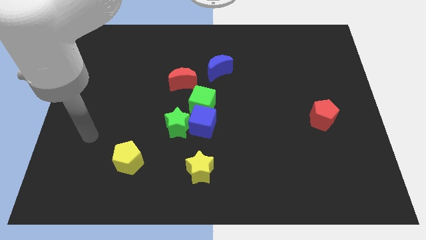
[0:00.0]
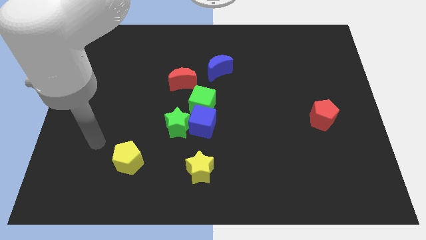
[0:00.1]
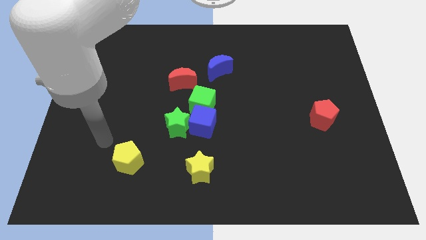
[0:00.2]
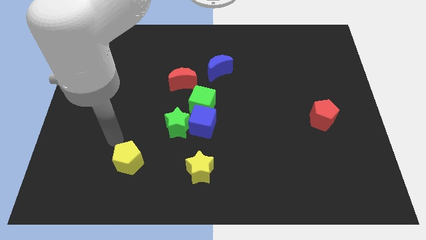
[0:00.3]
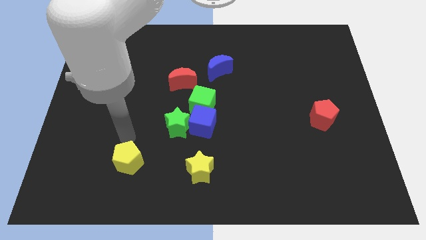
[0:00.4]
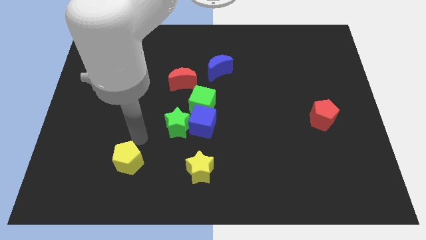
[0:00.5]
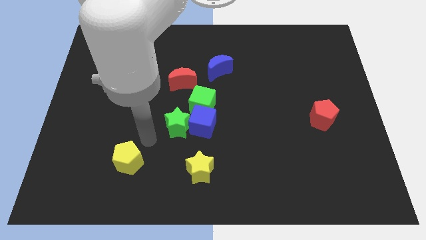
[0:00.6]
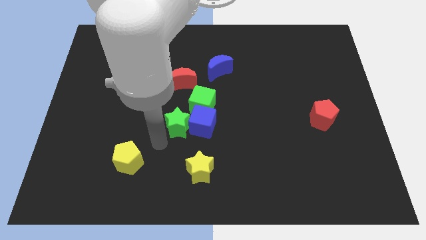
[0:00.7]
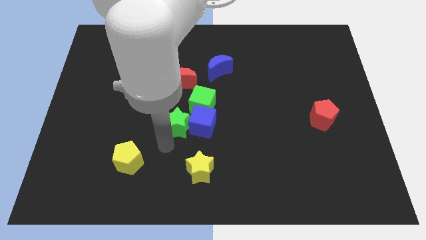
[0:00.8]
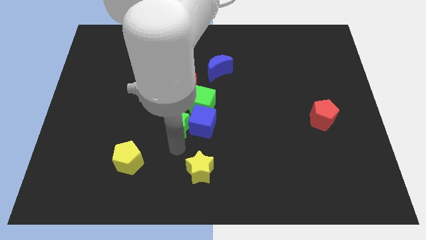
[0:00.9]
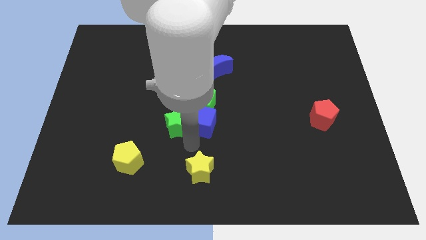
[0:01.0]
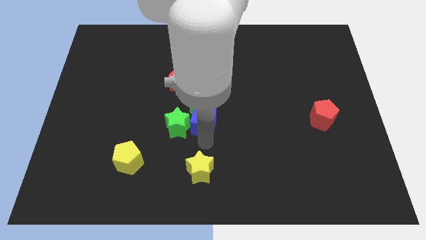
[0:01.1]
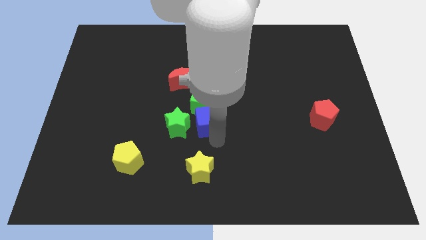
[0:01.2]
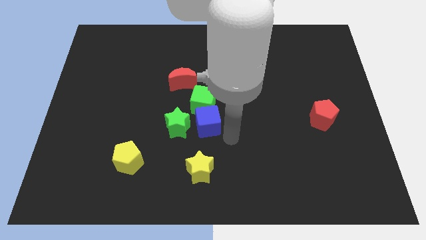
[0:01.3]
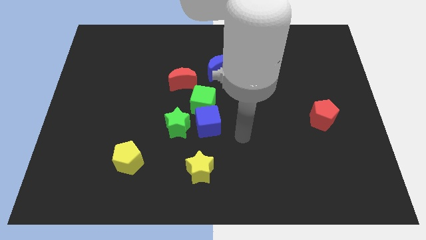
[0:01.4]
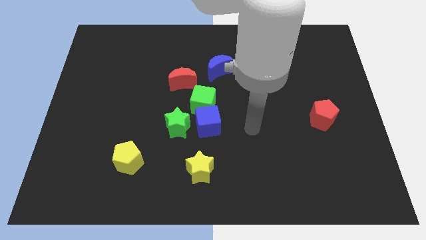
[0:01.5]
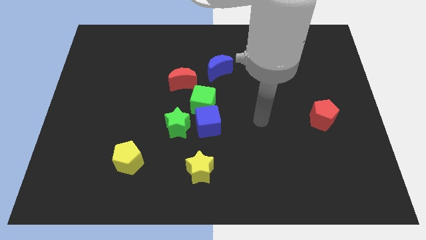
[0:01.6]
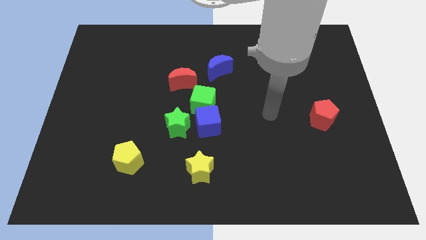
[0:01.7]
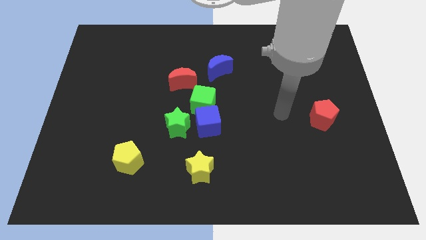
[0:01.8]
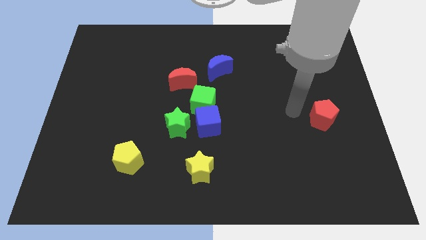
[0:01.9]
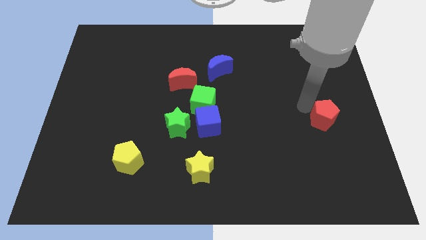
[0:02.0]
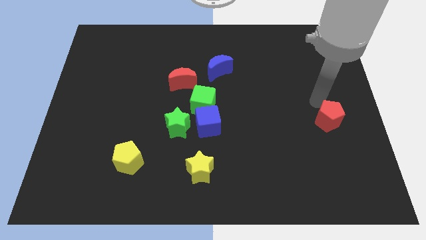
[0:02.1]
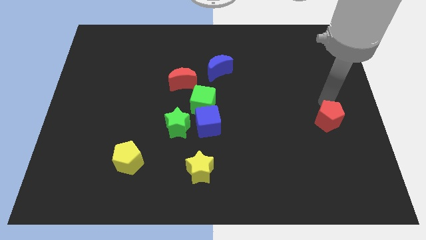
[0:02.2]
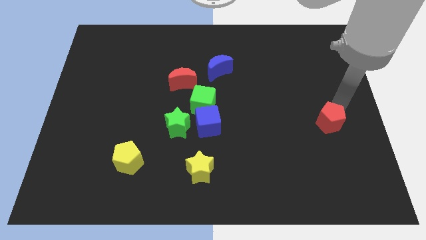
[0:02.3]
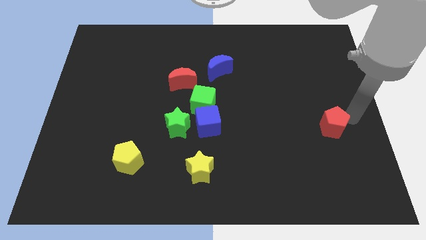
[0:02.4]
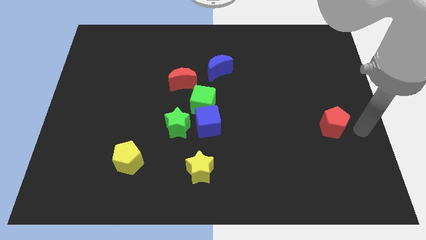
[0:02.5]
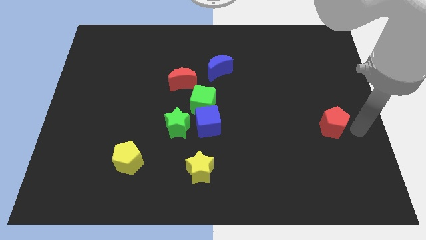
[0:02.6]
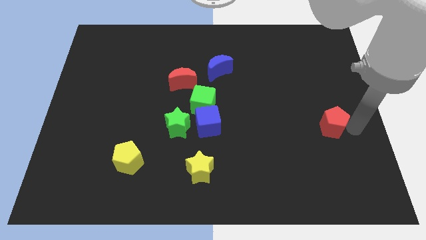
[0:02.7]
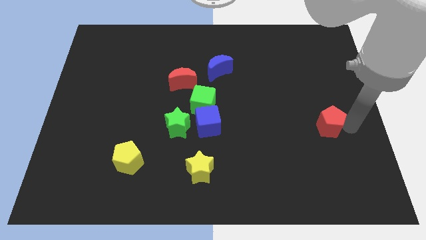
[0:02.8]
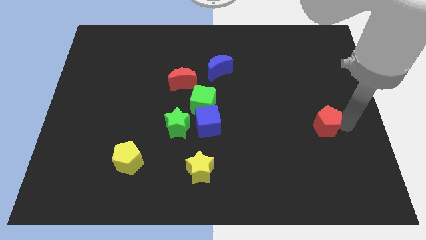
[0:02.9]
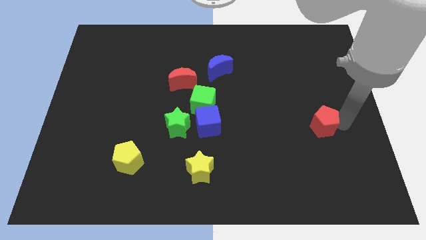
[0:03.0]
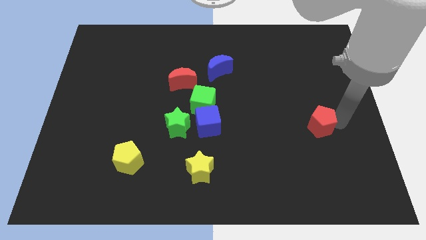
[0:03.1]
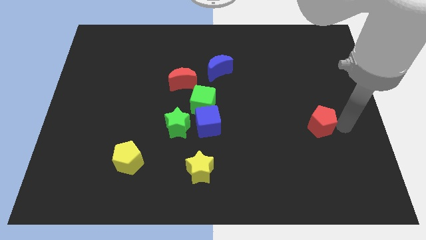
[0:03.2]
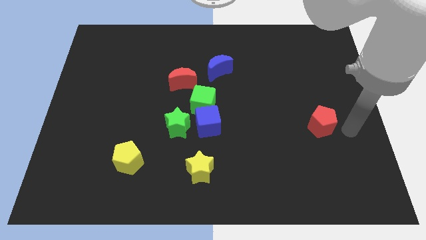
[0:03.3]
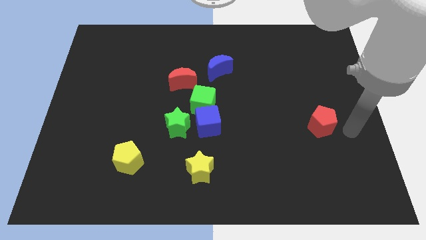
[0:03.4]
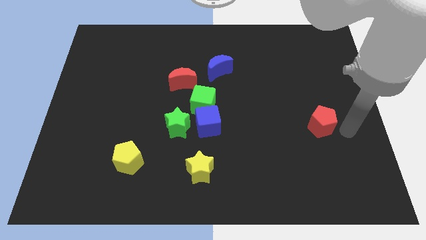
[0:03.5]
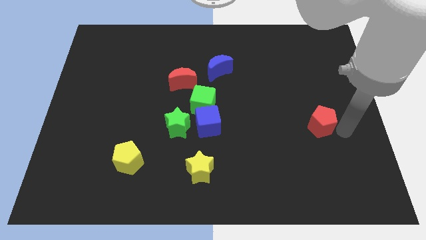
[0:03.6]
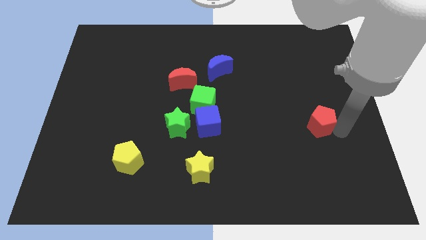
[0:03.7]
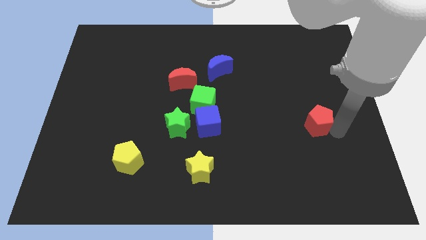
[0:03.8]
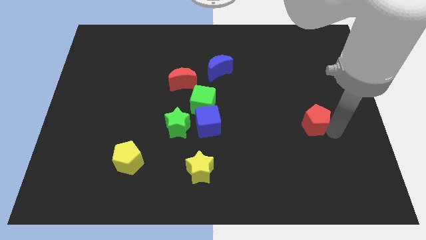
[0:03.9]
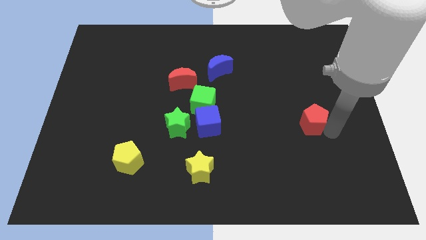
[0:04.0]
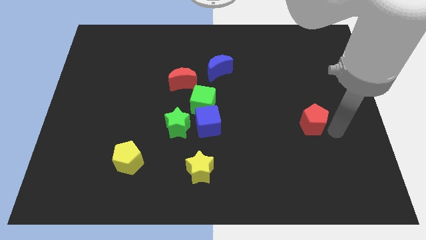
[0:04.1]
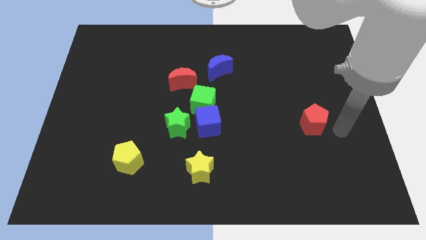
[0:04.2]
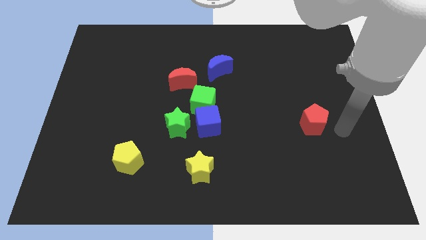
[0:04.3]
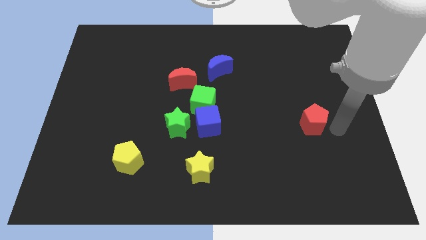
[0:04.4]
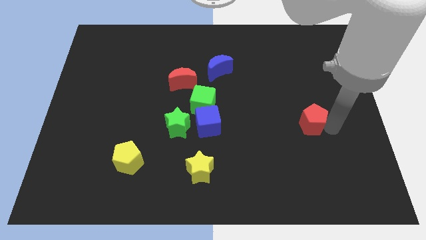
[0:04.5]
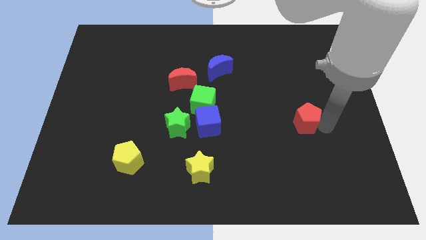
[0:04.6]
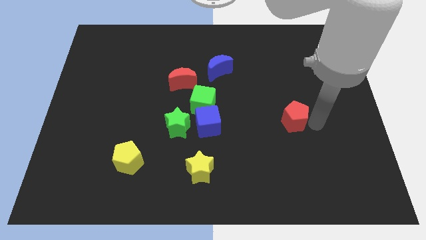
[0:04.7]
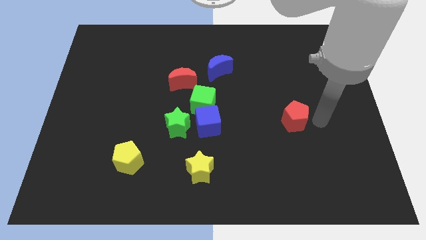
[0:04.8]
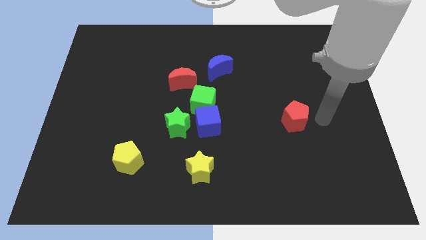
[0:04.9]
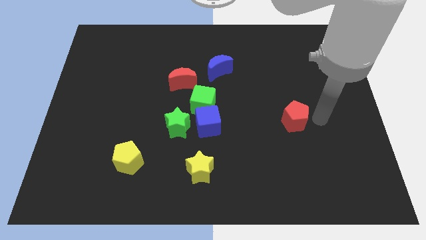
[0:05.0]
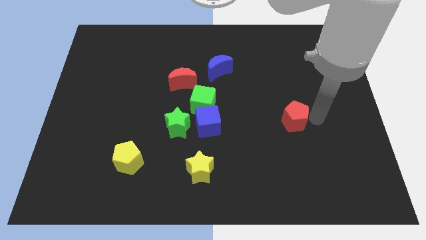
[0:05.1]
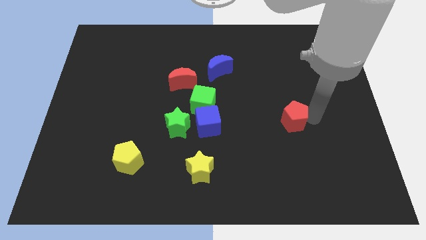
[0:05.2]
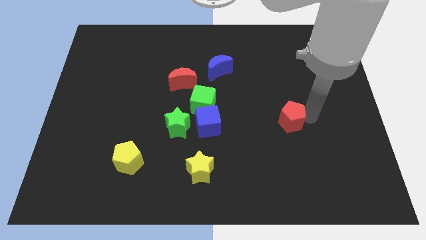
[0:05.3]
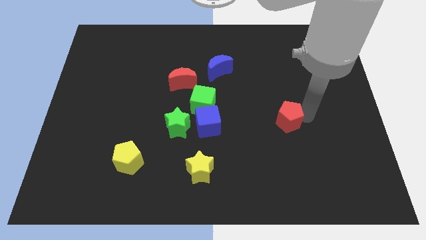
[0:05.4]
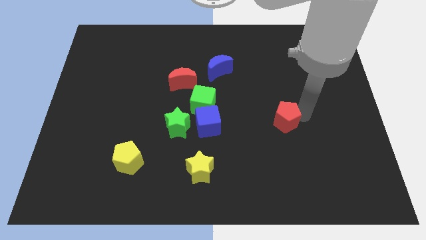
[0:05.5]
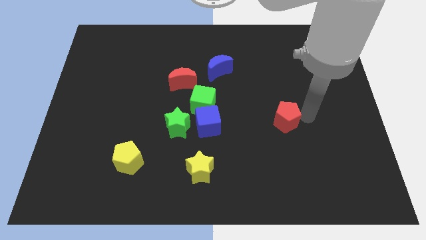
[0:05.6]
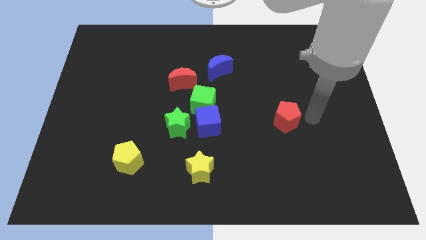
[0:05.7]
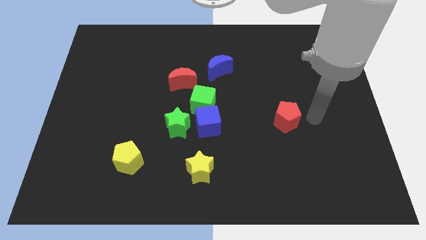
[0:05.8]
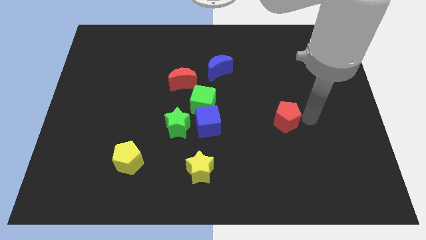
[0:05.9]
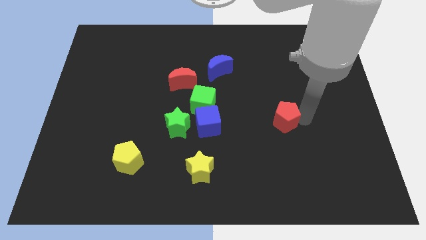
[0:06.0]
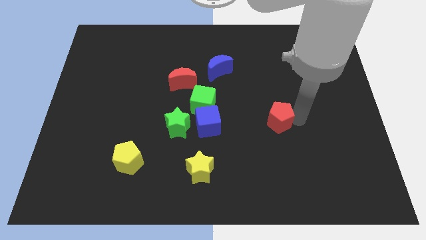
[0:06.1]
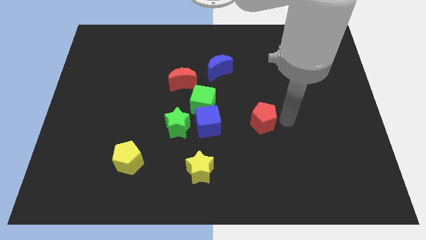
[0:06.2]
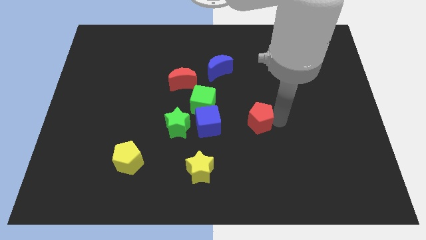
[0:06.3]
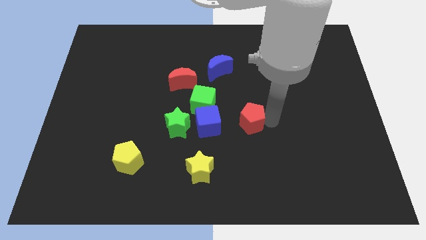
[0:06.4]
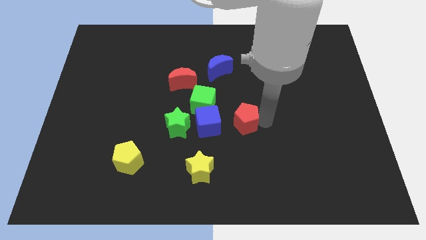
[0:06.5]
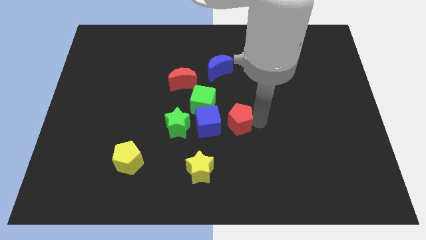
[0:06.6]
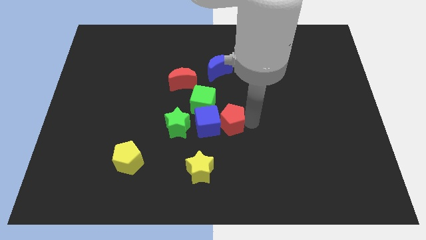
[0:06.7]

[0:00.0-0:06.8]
move the red pentagon to the blue cube

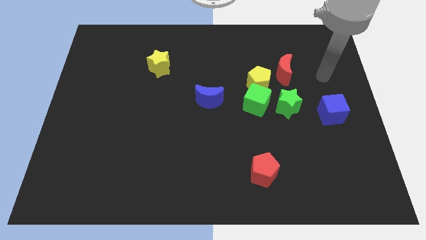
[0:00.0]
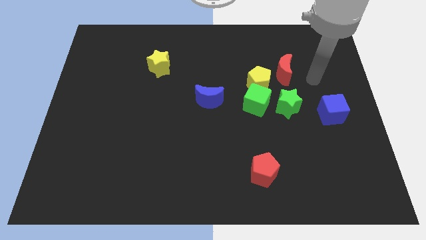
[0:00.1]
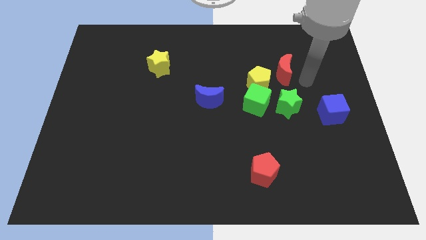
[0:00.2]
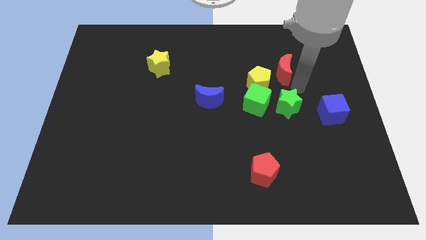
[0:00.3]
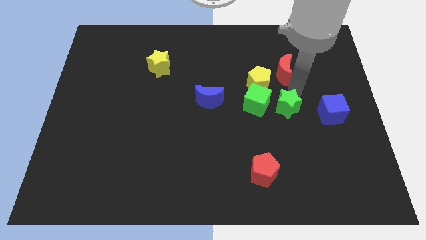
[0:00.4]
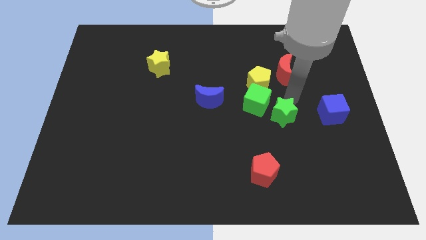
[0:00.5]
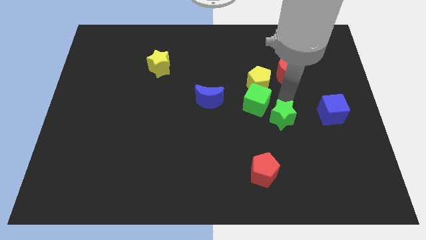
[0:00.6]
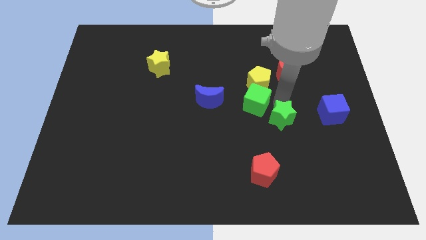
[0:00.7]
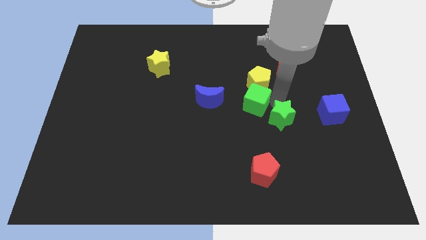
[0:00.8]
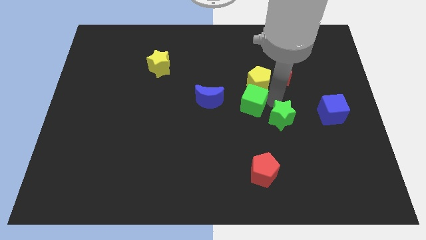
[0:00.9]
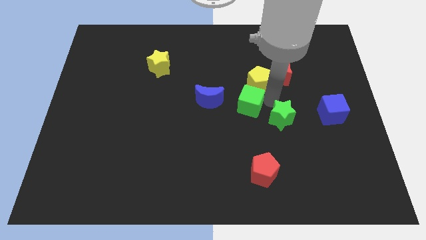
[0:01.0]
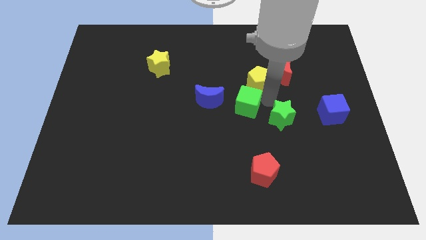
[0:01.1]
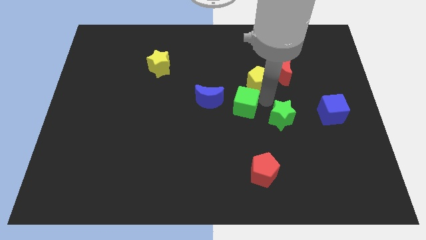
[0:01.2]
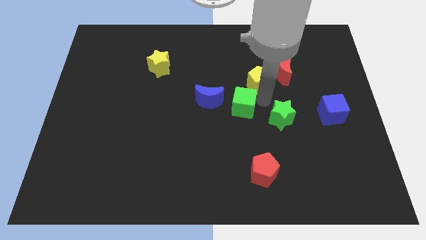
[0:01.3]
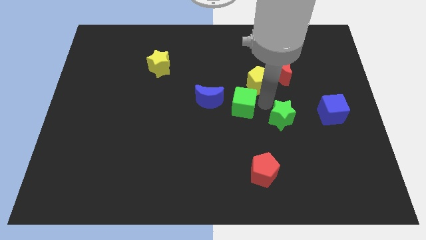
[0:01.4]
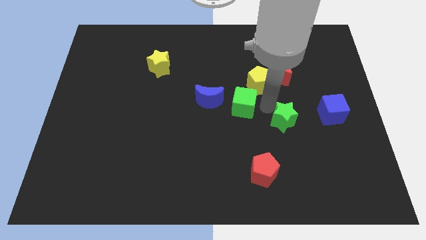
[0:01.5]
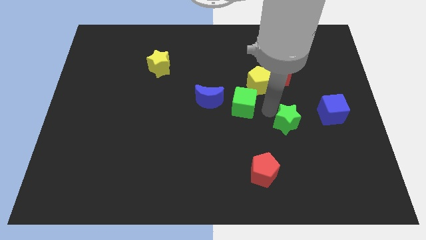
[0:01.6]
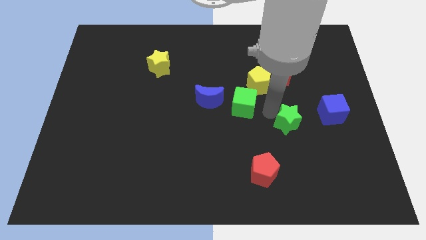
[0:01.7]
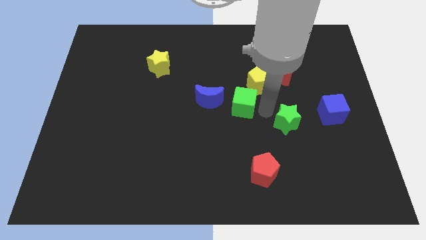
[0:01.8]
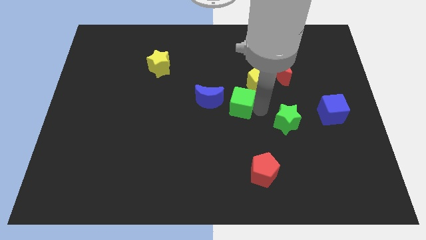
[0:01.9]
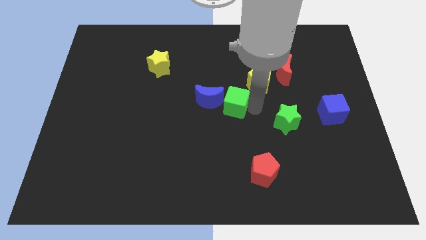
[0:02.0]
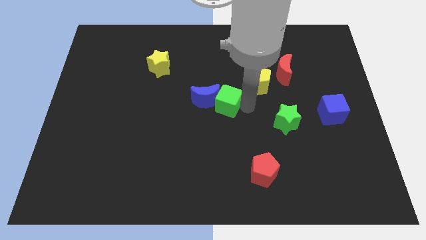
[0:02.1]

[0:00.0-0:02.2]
push the green cube towards the blue moon
